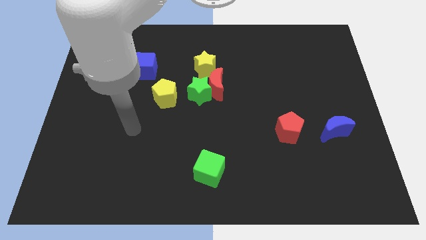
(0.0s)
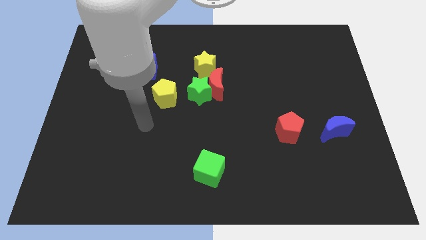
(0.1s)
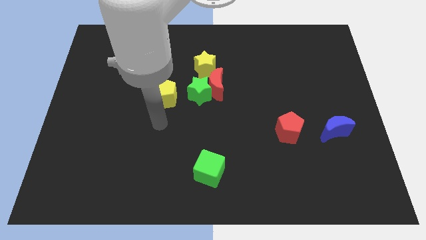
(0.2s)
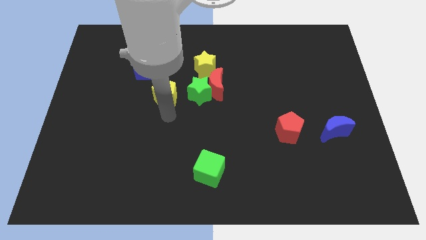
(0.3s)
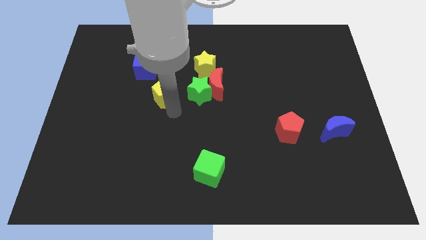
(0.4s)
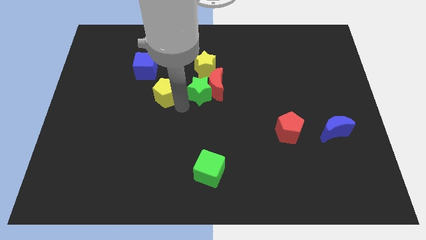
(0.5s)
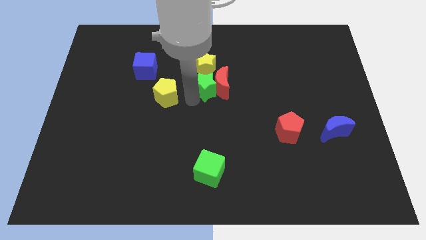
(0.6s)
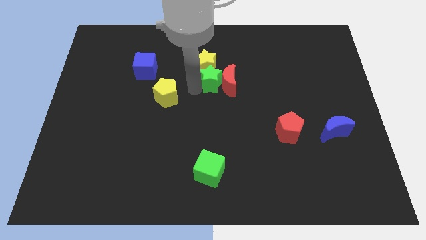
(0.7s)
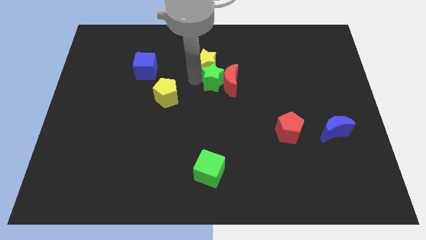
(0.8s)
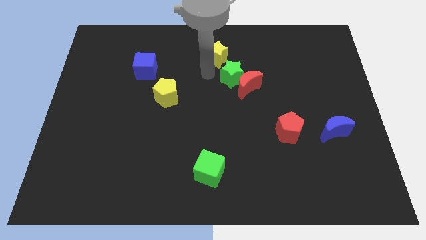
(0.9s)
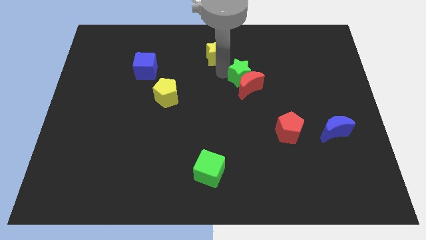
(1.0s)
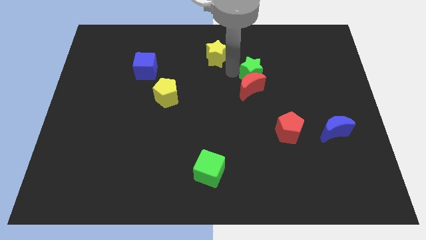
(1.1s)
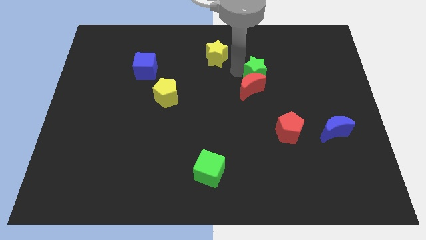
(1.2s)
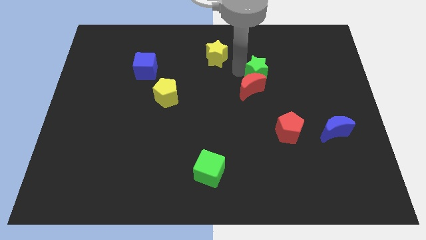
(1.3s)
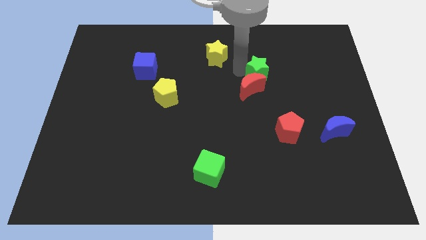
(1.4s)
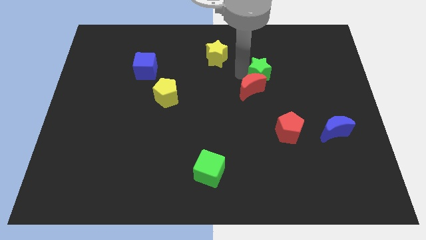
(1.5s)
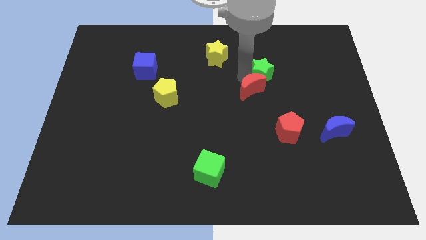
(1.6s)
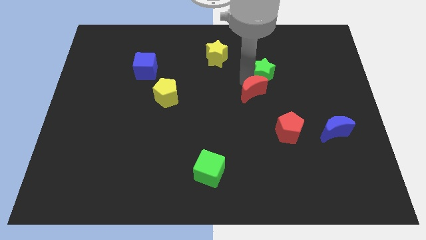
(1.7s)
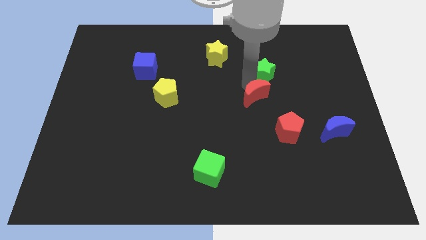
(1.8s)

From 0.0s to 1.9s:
pull the red moon apart from the green star and yellow star

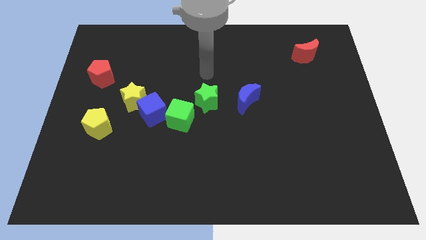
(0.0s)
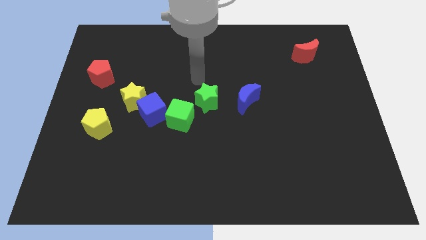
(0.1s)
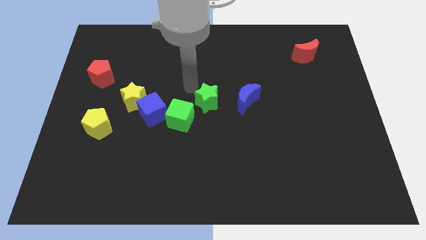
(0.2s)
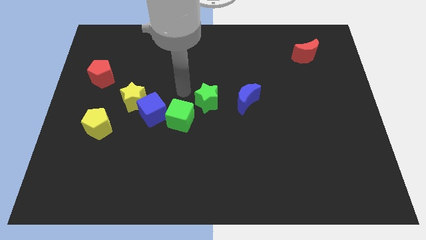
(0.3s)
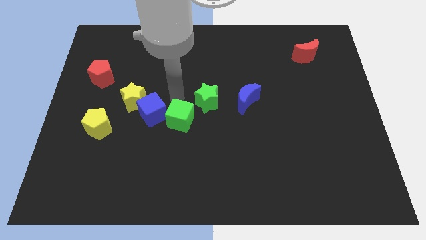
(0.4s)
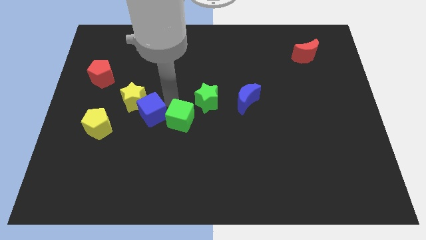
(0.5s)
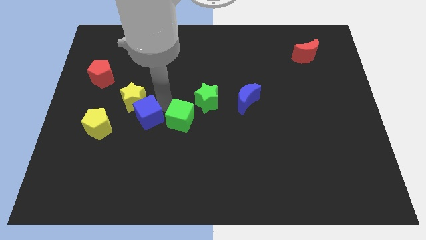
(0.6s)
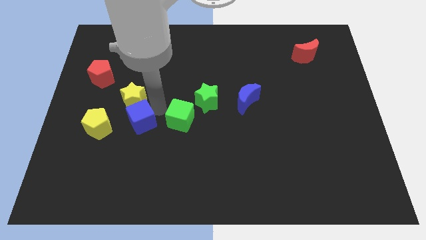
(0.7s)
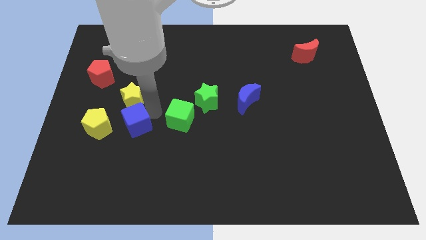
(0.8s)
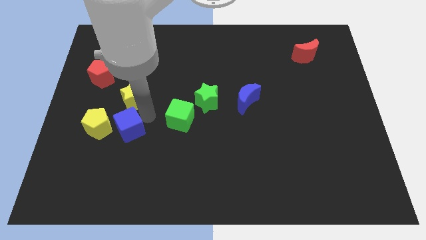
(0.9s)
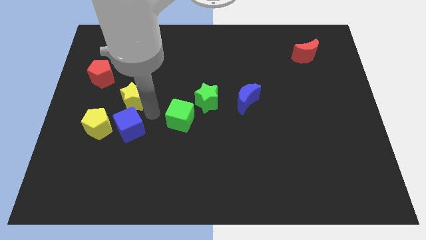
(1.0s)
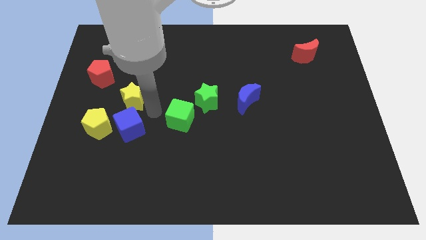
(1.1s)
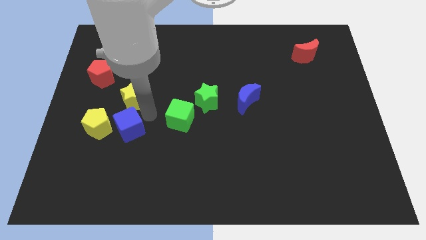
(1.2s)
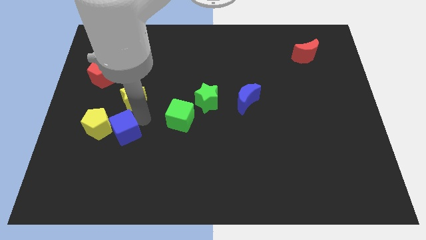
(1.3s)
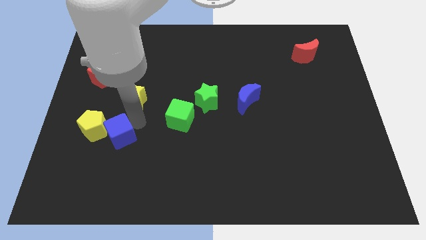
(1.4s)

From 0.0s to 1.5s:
separate the blue cube from the yellow star and green cube

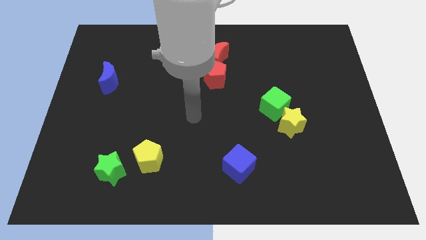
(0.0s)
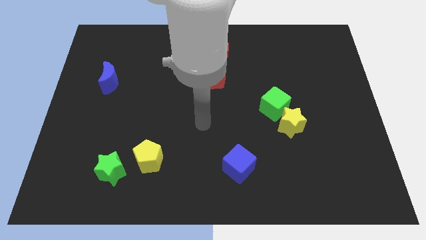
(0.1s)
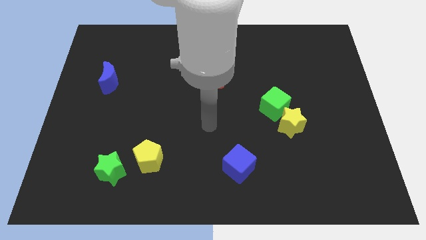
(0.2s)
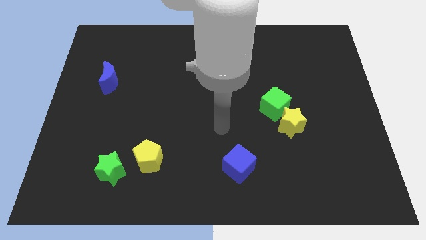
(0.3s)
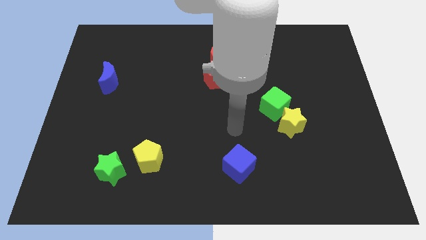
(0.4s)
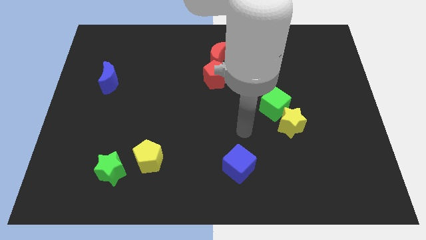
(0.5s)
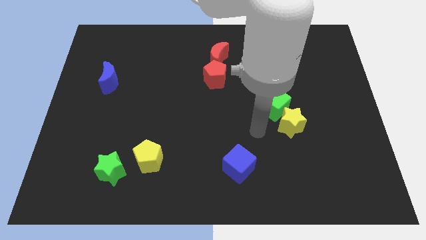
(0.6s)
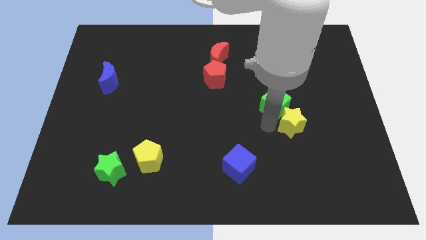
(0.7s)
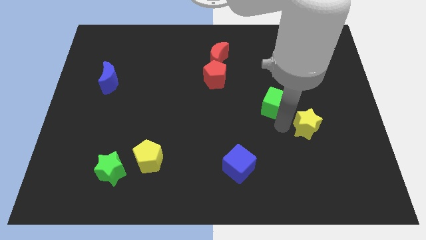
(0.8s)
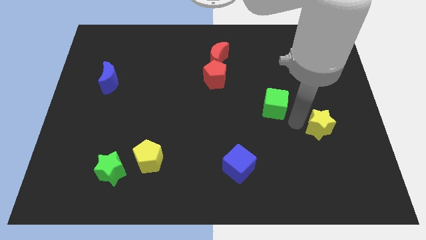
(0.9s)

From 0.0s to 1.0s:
move the green cube away from the yellow star

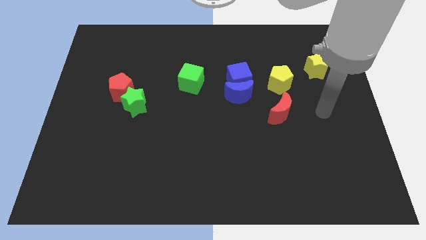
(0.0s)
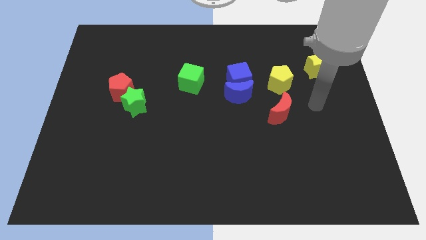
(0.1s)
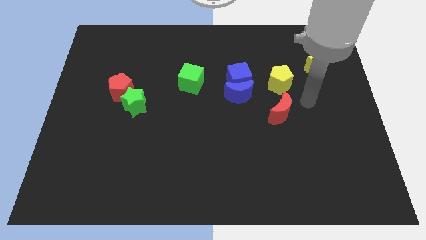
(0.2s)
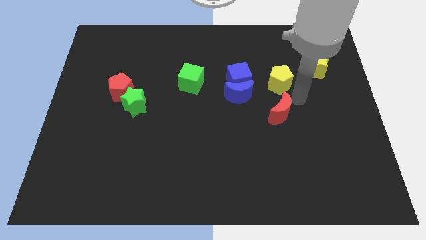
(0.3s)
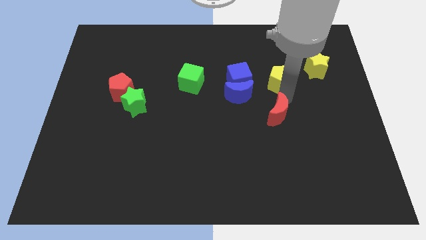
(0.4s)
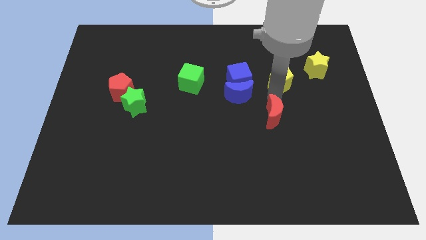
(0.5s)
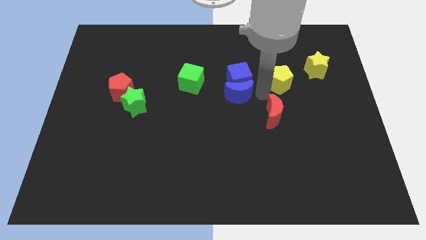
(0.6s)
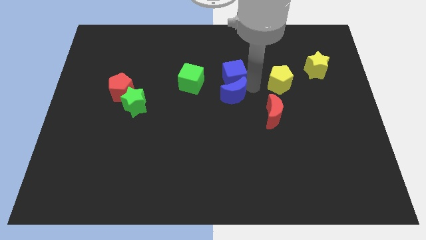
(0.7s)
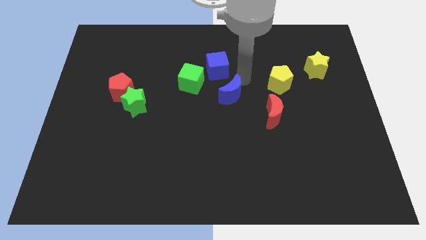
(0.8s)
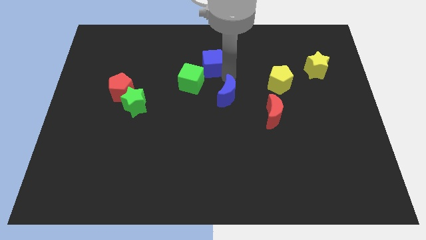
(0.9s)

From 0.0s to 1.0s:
pull the blue moon apart from the blue cube

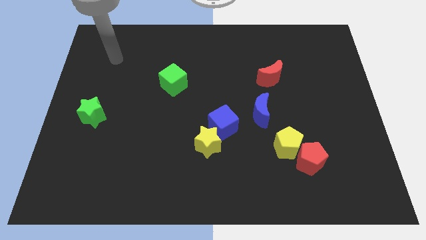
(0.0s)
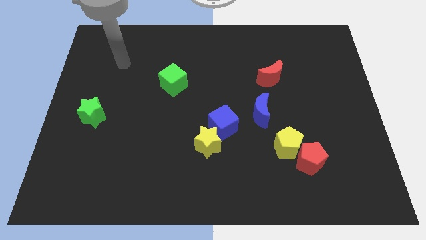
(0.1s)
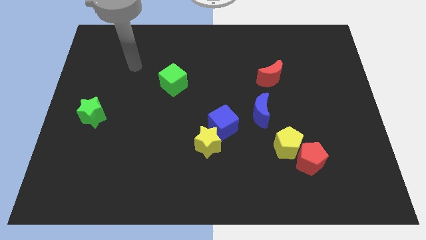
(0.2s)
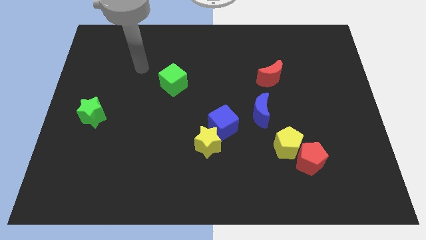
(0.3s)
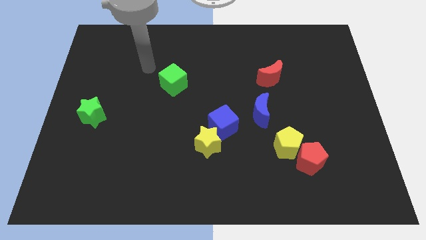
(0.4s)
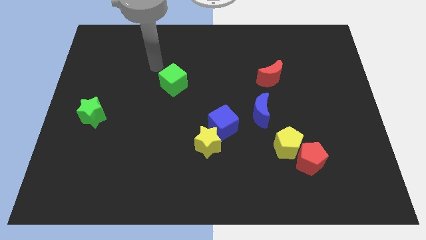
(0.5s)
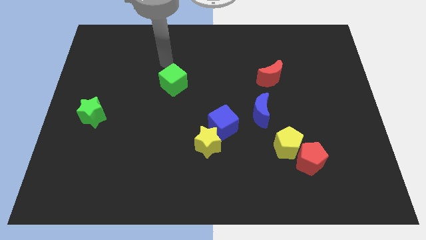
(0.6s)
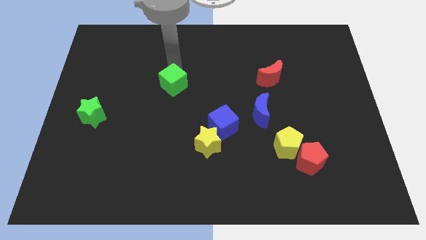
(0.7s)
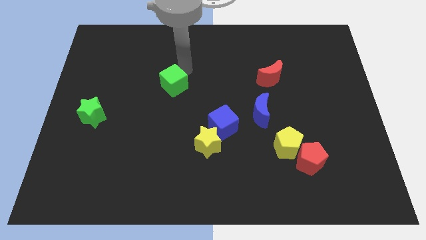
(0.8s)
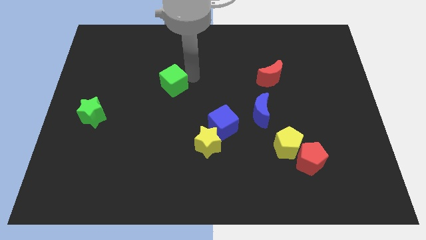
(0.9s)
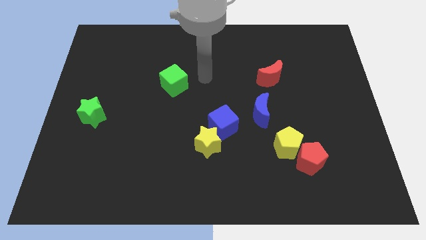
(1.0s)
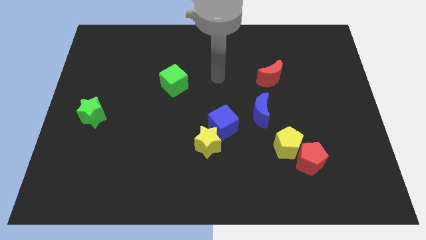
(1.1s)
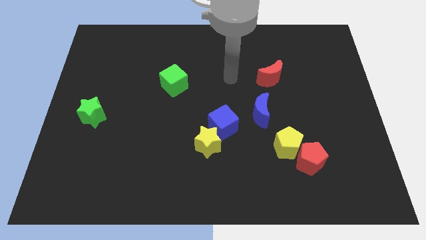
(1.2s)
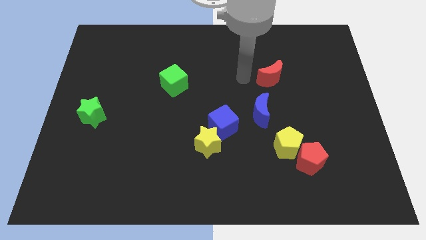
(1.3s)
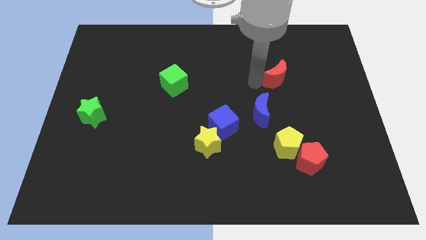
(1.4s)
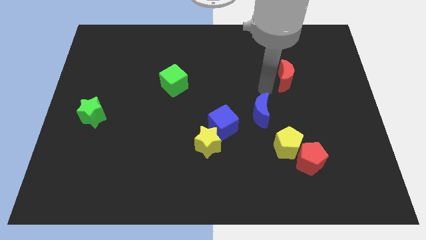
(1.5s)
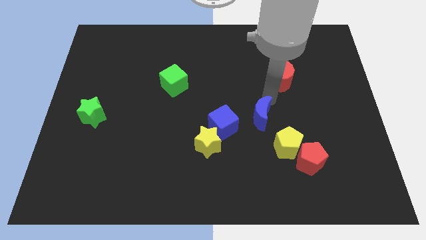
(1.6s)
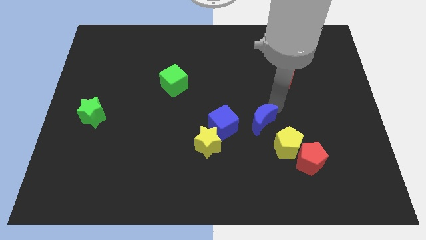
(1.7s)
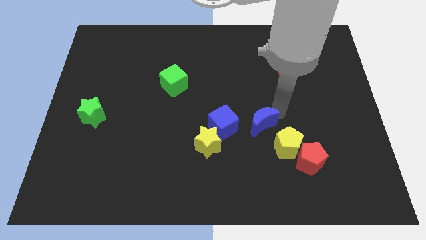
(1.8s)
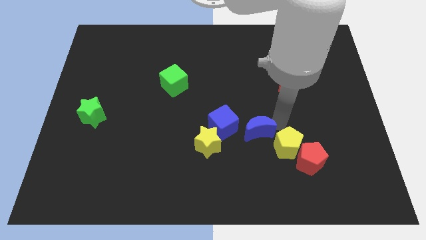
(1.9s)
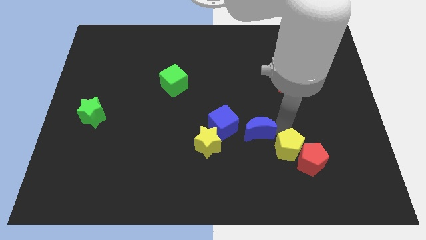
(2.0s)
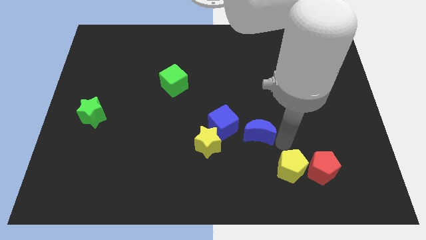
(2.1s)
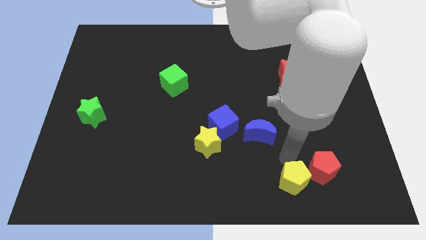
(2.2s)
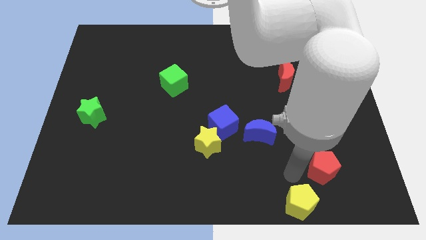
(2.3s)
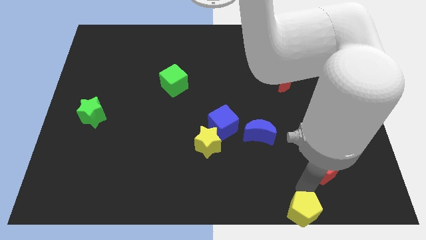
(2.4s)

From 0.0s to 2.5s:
pull the red pentagon apart from the yellow pentagon

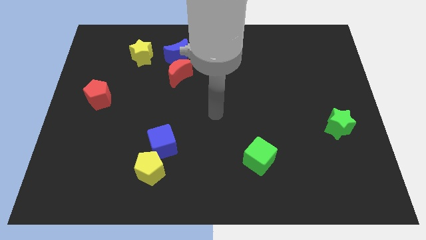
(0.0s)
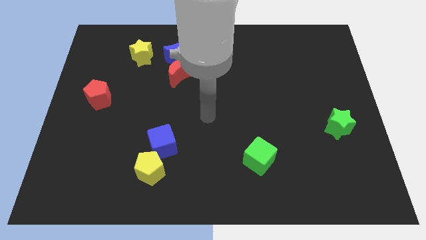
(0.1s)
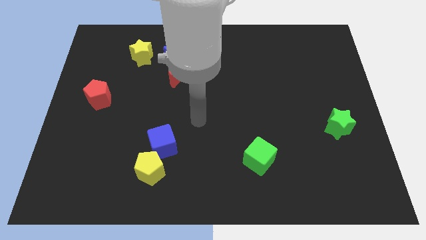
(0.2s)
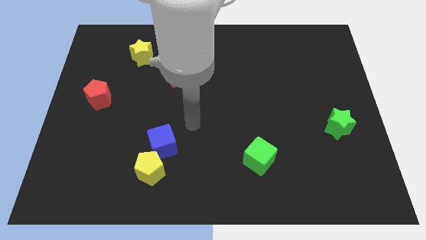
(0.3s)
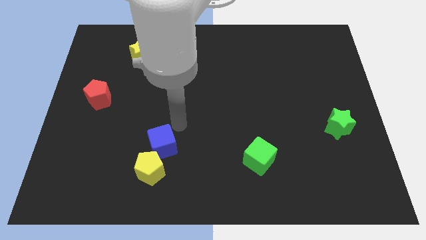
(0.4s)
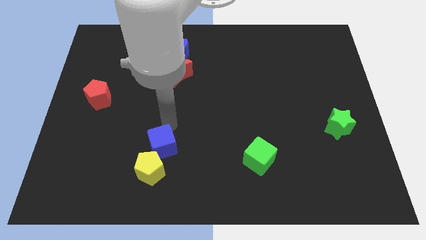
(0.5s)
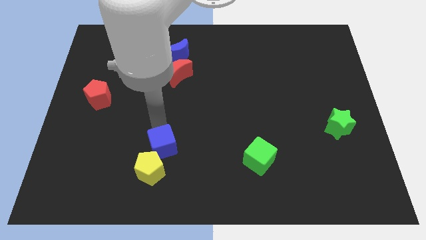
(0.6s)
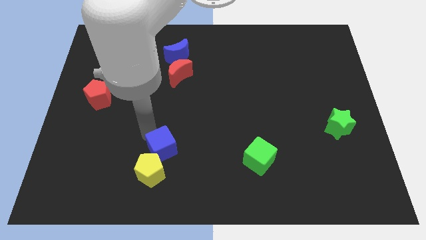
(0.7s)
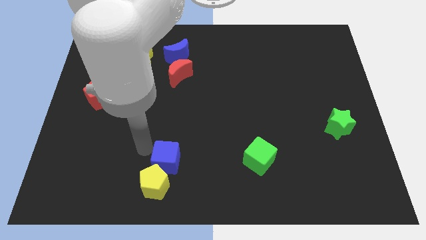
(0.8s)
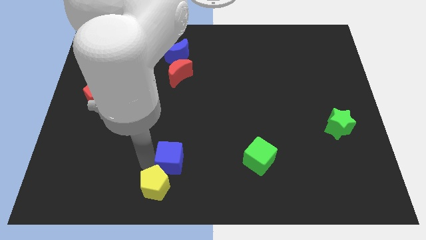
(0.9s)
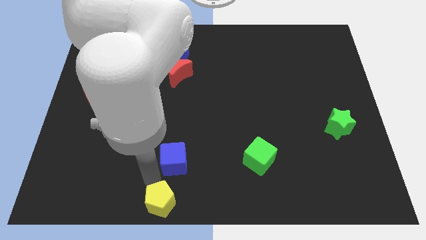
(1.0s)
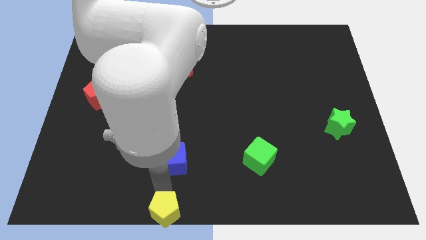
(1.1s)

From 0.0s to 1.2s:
pull the blue cube apart from the yellow pentagon

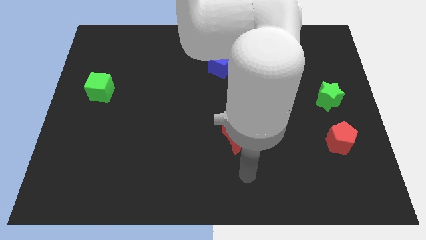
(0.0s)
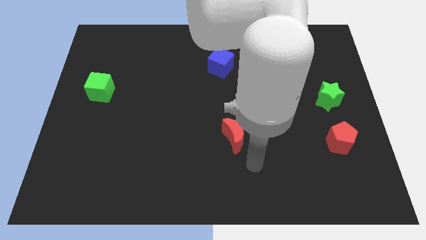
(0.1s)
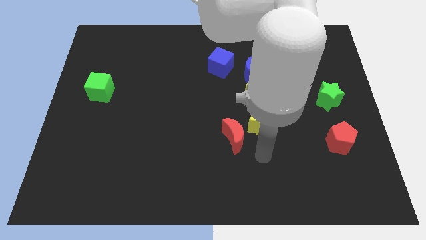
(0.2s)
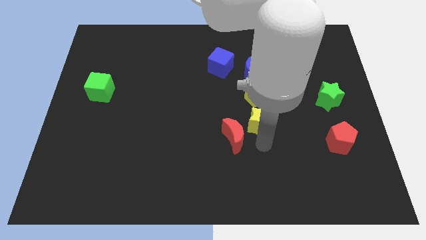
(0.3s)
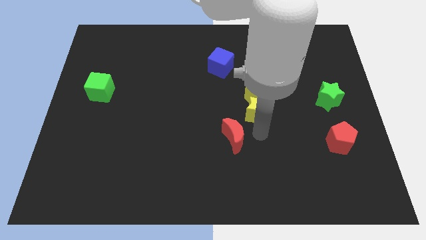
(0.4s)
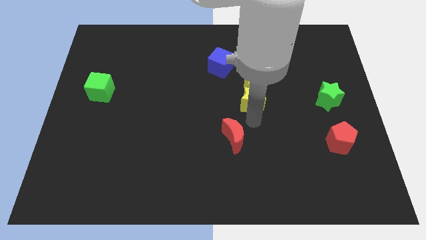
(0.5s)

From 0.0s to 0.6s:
separate the red moon from the yellow star
